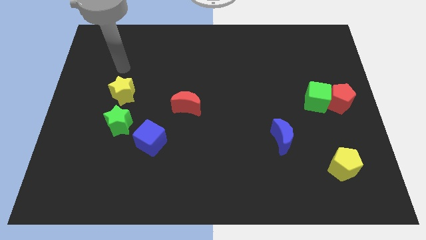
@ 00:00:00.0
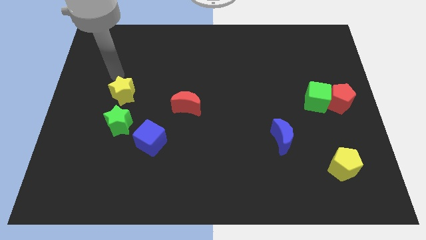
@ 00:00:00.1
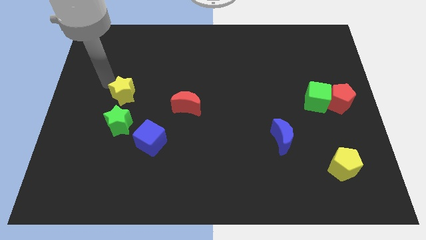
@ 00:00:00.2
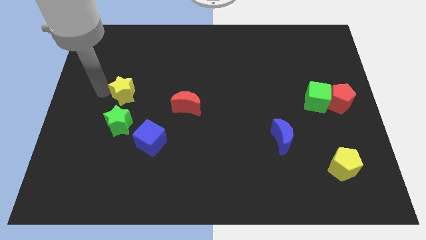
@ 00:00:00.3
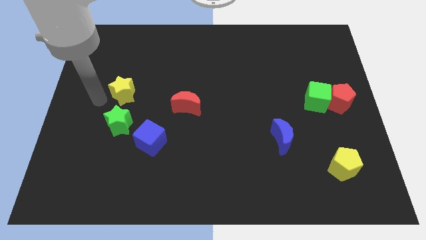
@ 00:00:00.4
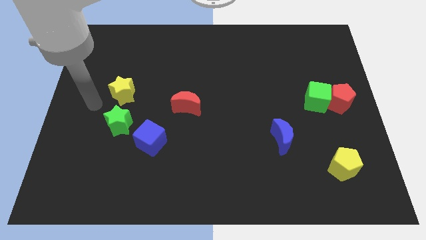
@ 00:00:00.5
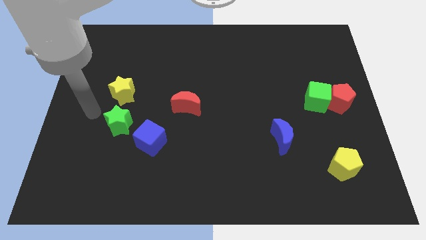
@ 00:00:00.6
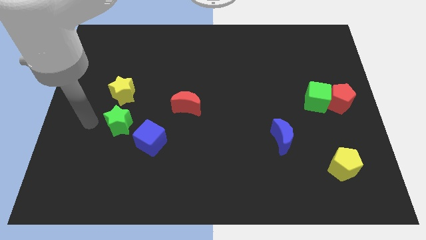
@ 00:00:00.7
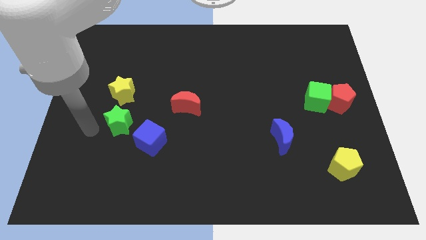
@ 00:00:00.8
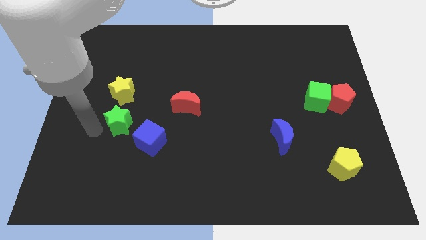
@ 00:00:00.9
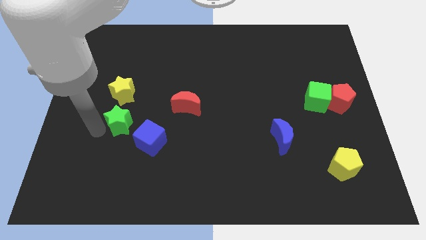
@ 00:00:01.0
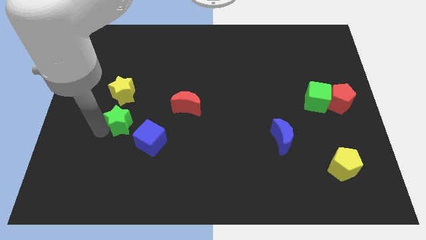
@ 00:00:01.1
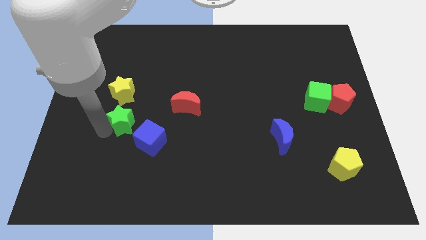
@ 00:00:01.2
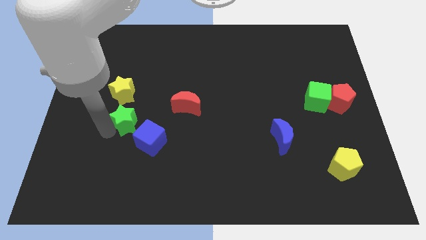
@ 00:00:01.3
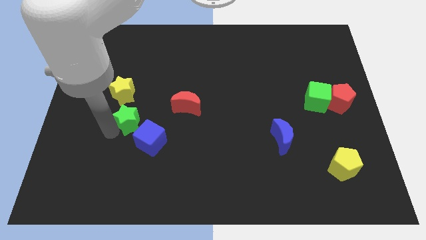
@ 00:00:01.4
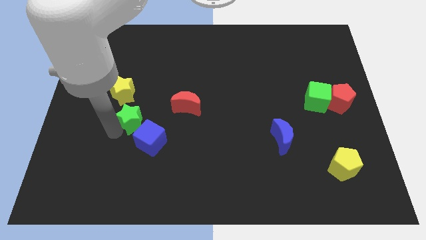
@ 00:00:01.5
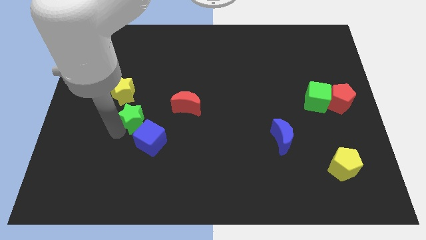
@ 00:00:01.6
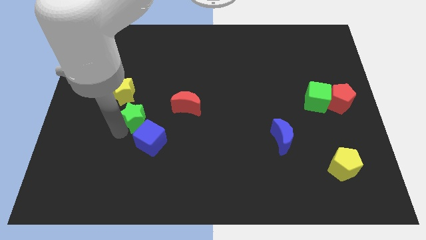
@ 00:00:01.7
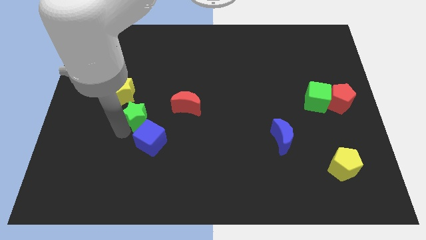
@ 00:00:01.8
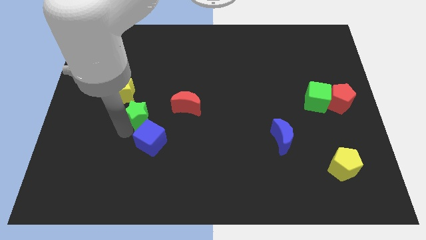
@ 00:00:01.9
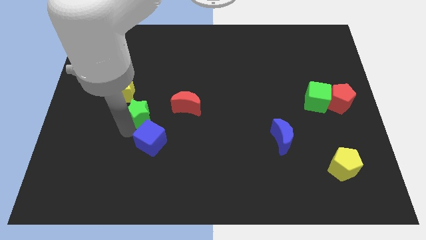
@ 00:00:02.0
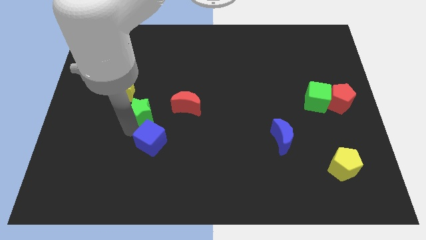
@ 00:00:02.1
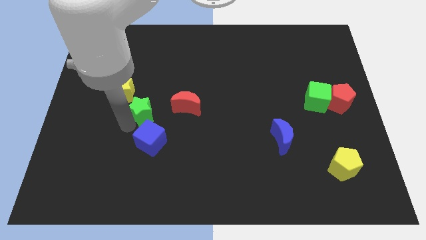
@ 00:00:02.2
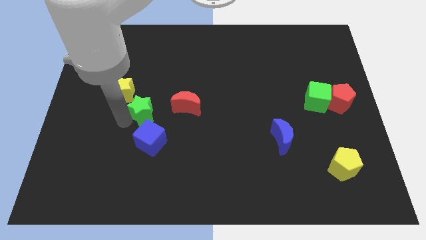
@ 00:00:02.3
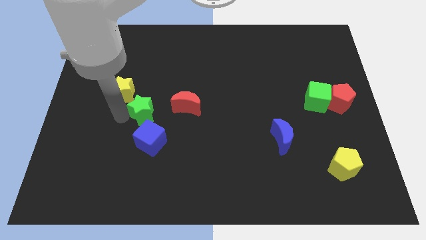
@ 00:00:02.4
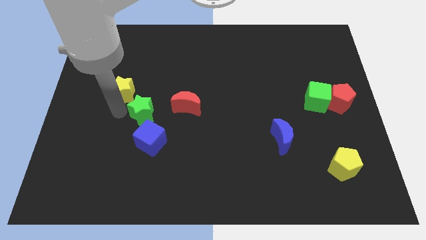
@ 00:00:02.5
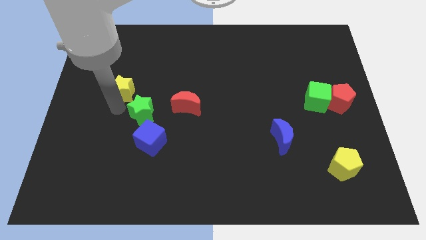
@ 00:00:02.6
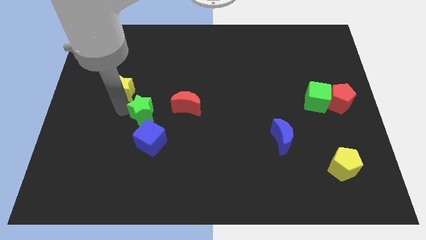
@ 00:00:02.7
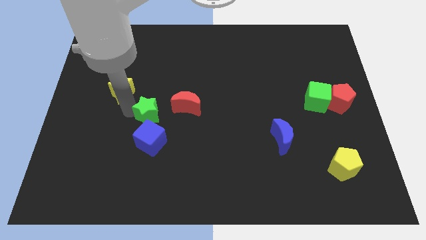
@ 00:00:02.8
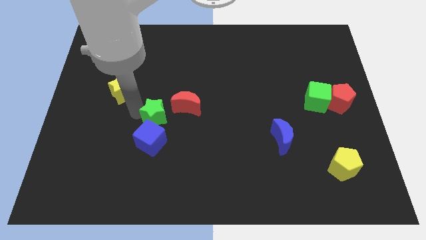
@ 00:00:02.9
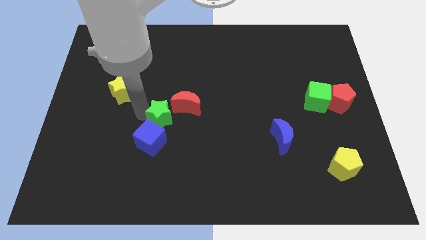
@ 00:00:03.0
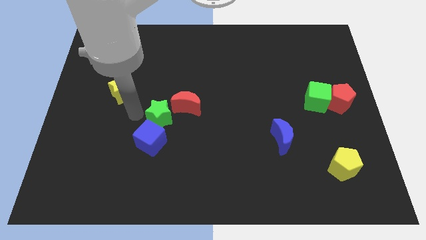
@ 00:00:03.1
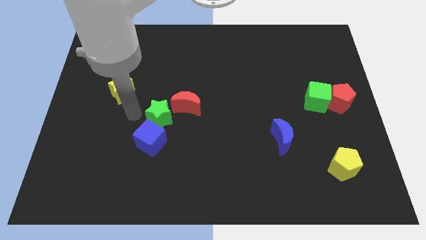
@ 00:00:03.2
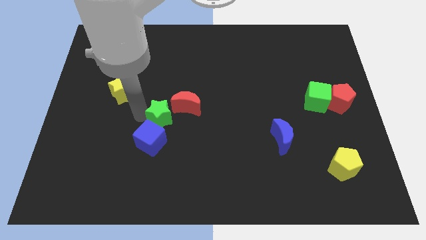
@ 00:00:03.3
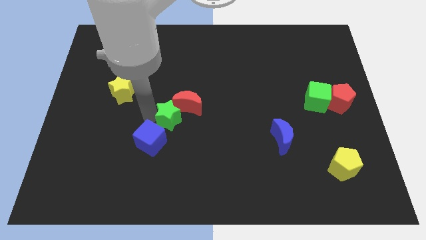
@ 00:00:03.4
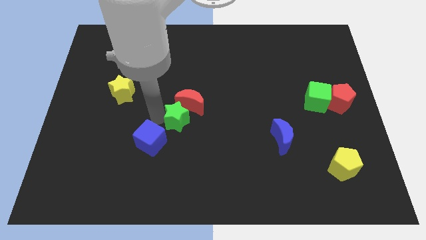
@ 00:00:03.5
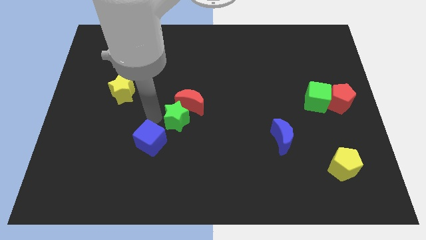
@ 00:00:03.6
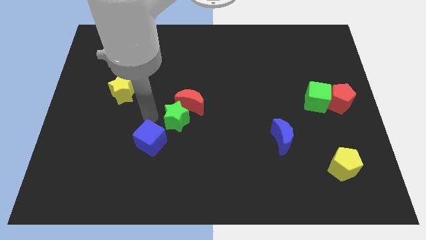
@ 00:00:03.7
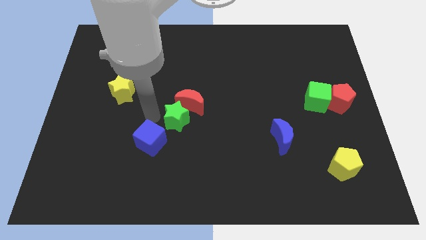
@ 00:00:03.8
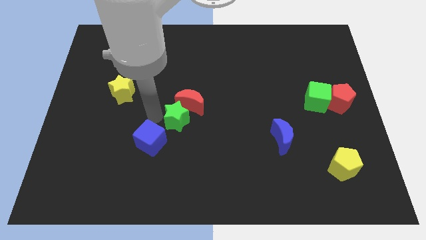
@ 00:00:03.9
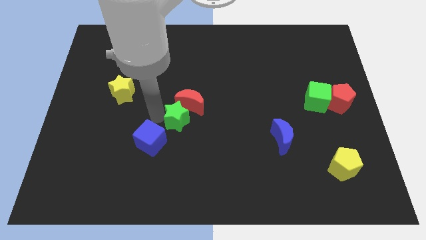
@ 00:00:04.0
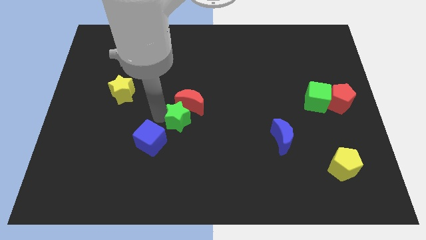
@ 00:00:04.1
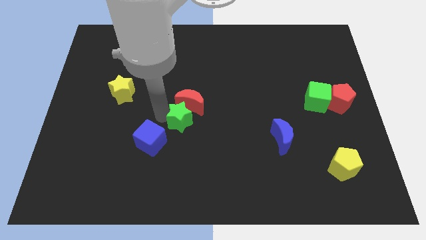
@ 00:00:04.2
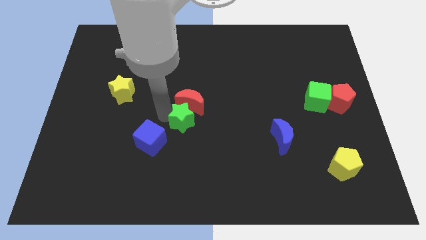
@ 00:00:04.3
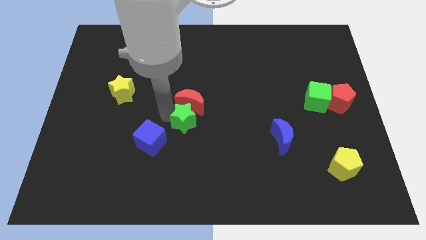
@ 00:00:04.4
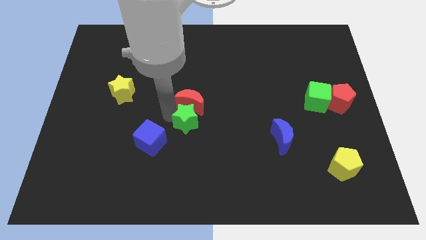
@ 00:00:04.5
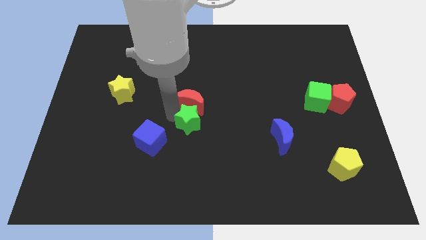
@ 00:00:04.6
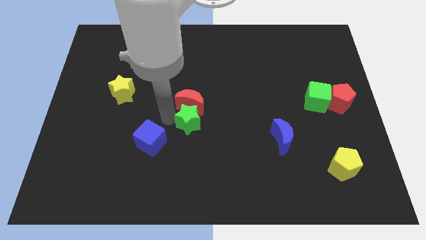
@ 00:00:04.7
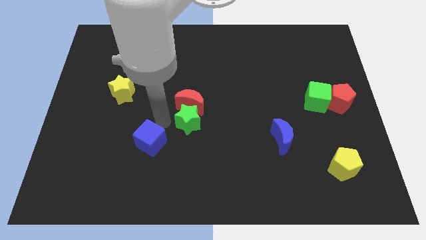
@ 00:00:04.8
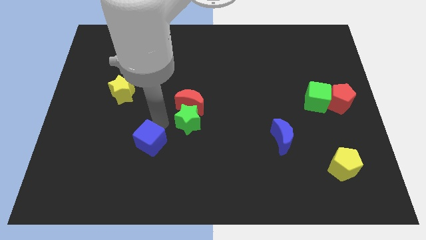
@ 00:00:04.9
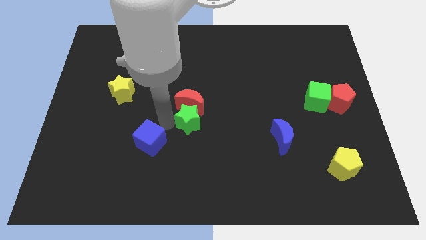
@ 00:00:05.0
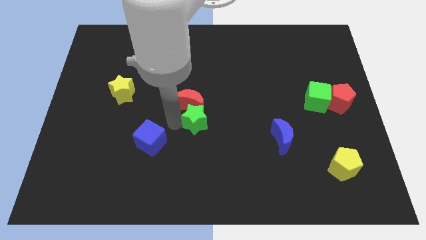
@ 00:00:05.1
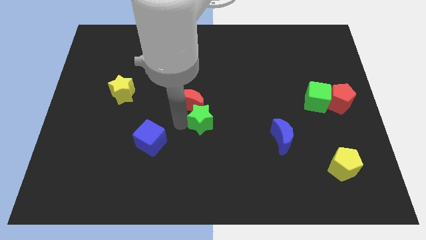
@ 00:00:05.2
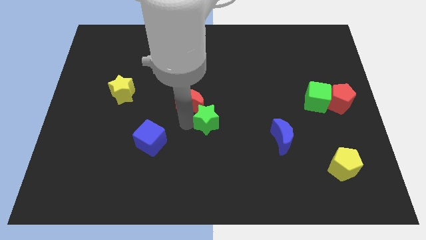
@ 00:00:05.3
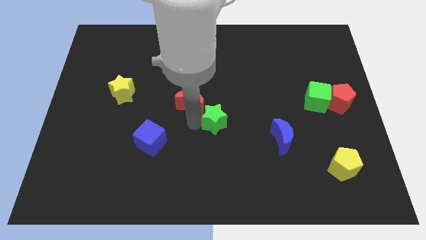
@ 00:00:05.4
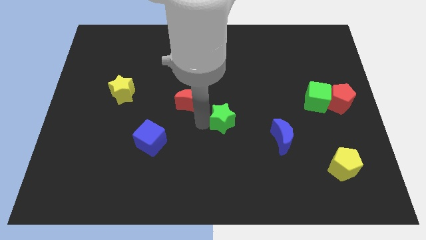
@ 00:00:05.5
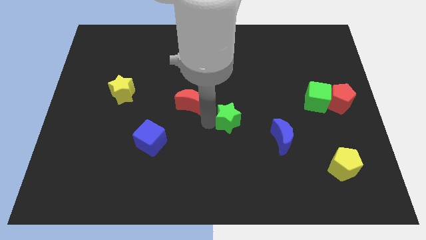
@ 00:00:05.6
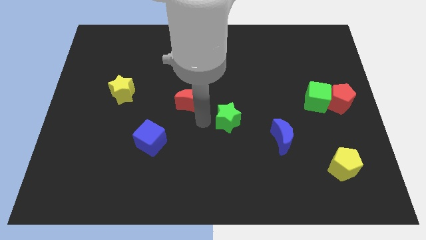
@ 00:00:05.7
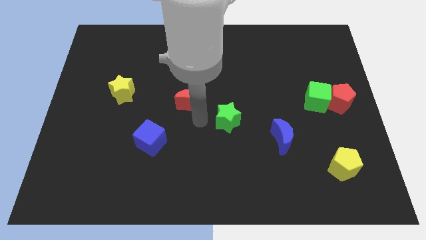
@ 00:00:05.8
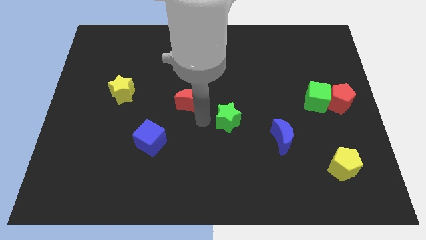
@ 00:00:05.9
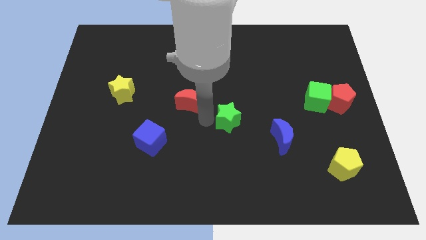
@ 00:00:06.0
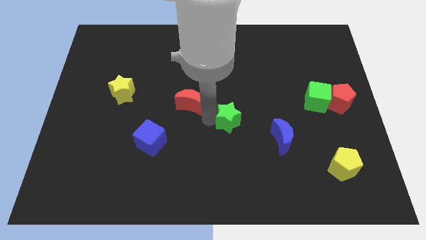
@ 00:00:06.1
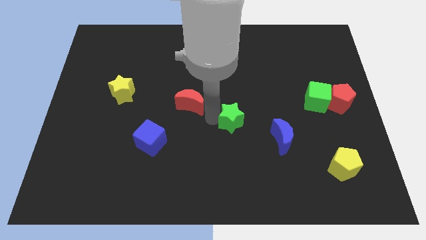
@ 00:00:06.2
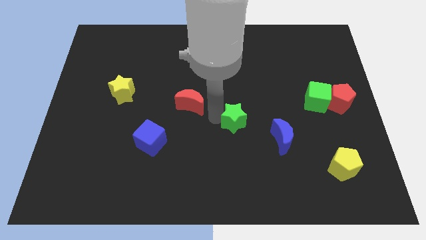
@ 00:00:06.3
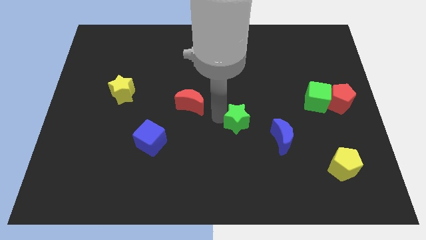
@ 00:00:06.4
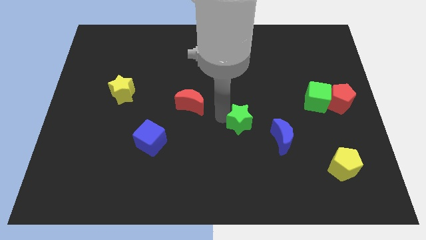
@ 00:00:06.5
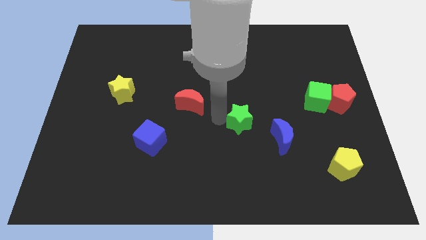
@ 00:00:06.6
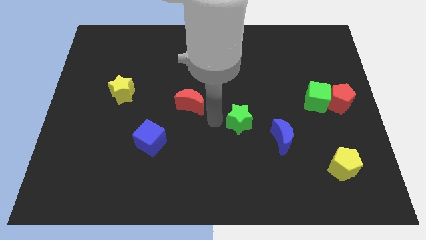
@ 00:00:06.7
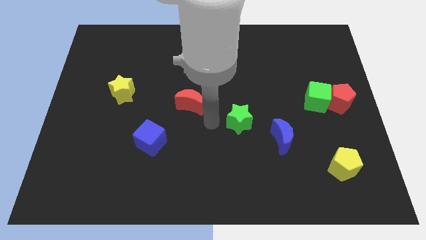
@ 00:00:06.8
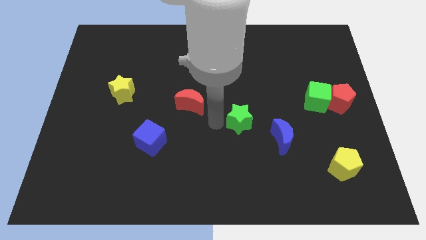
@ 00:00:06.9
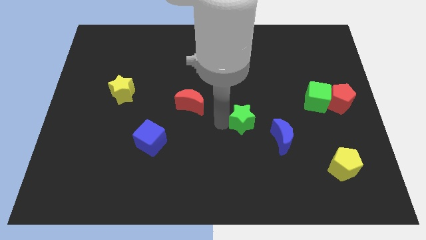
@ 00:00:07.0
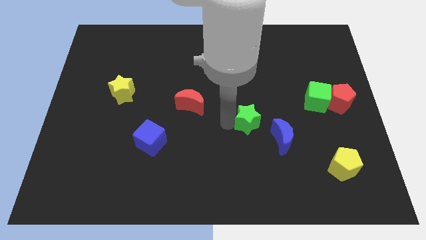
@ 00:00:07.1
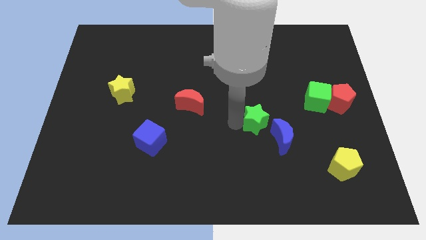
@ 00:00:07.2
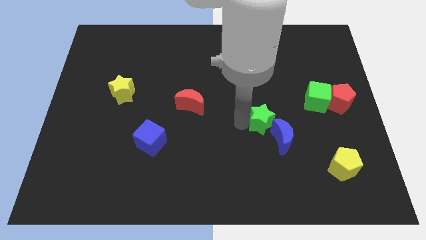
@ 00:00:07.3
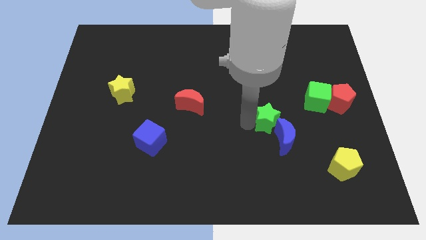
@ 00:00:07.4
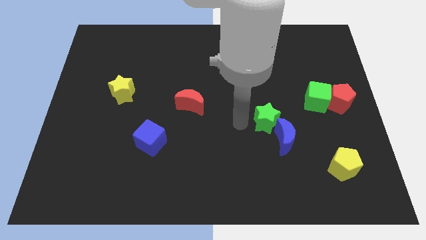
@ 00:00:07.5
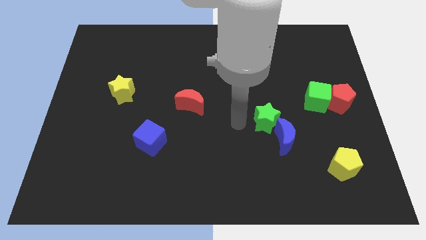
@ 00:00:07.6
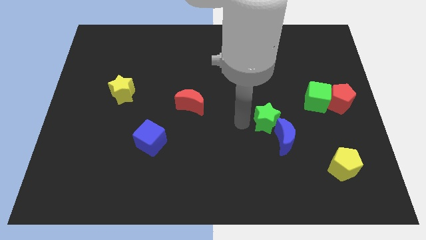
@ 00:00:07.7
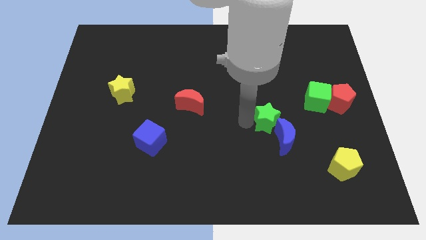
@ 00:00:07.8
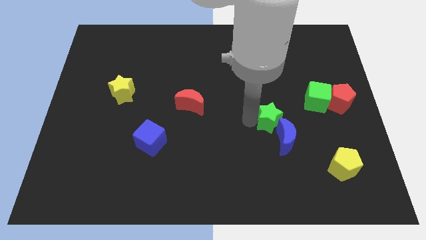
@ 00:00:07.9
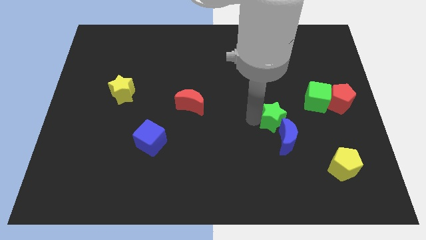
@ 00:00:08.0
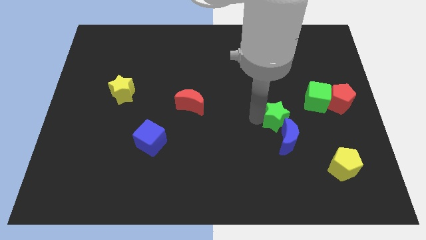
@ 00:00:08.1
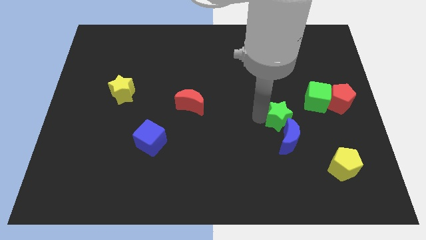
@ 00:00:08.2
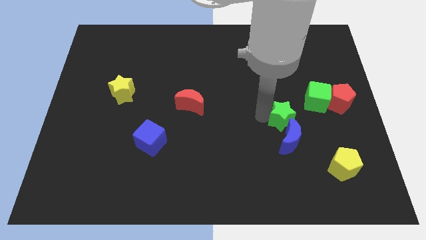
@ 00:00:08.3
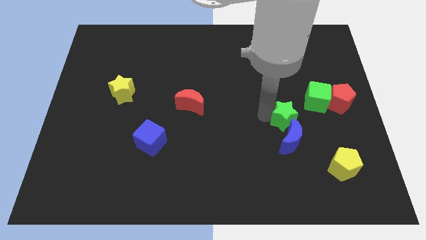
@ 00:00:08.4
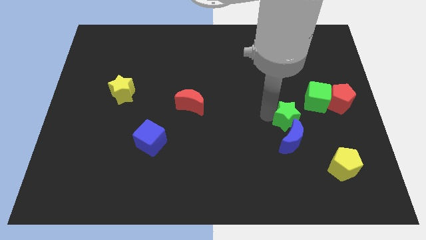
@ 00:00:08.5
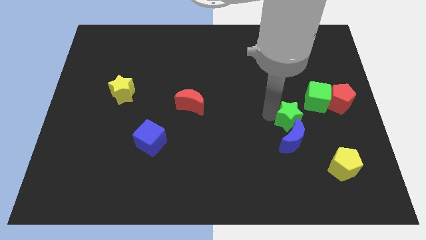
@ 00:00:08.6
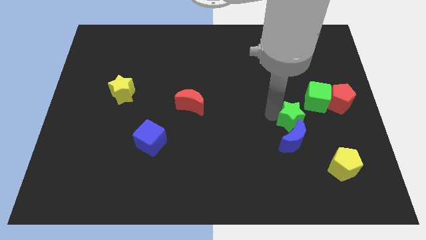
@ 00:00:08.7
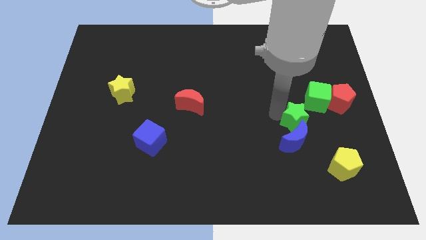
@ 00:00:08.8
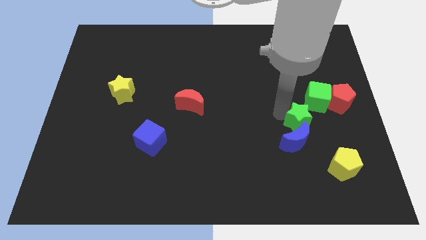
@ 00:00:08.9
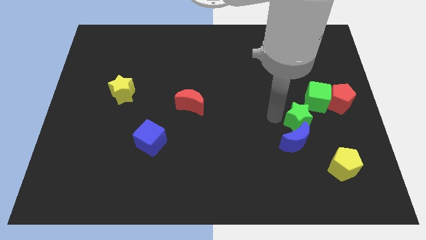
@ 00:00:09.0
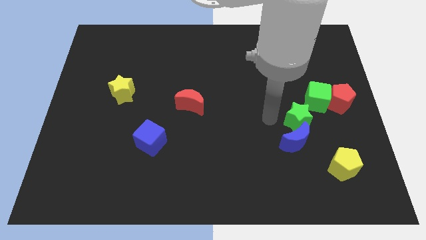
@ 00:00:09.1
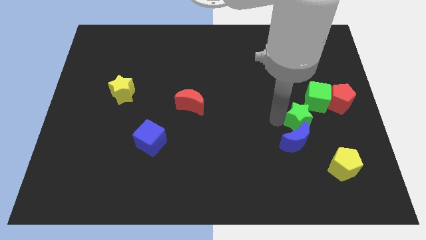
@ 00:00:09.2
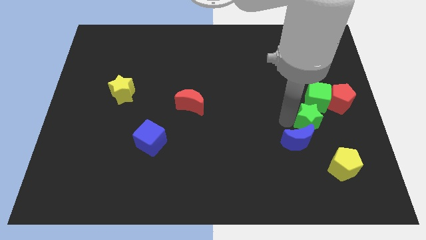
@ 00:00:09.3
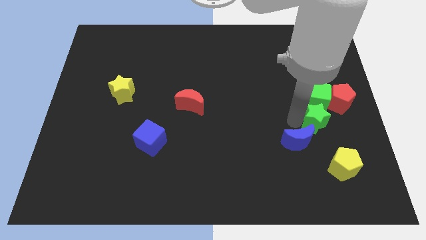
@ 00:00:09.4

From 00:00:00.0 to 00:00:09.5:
put the green star above the yellow pentagon
